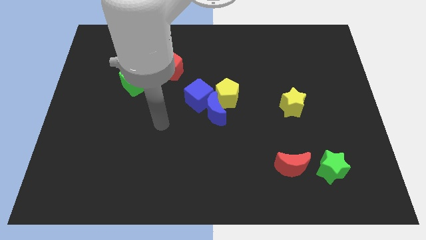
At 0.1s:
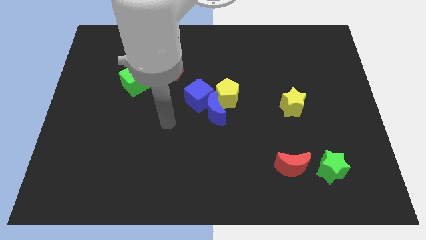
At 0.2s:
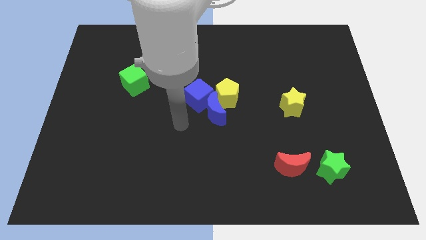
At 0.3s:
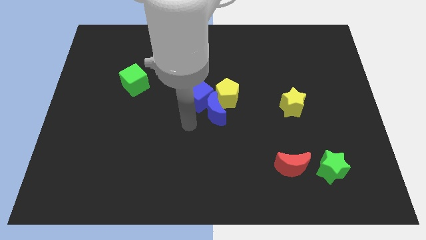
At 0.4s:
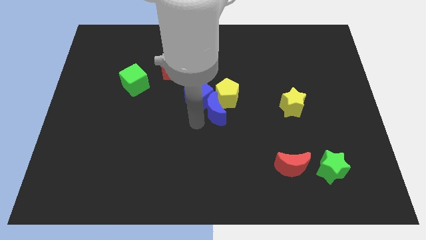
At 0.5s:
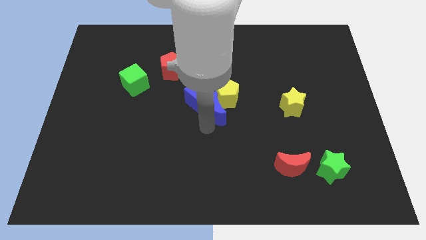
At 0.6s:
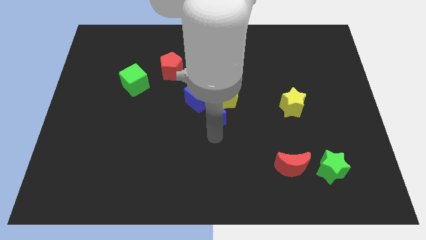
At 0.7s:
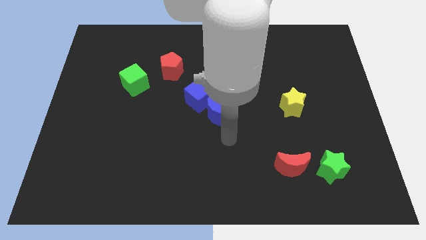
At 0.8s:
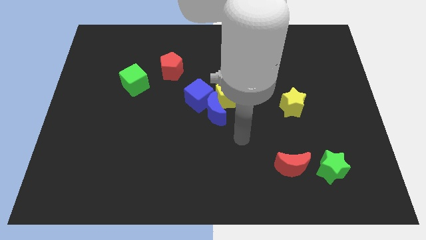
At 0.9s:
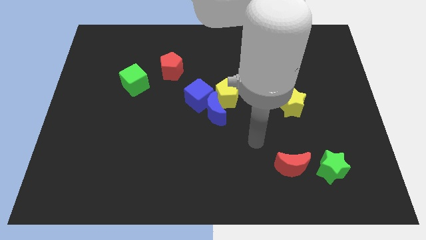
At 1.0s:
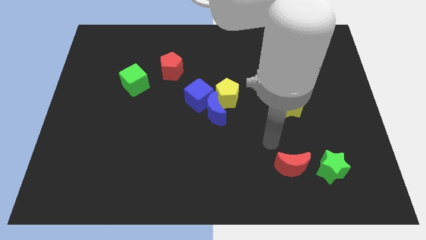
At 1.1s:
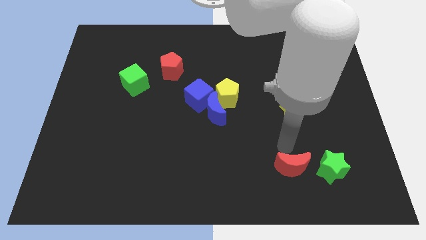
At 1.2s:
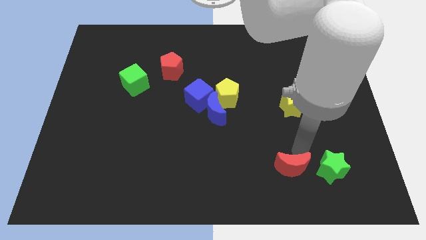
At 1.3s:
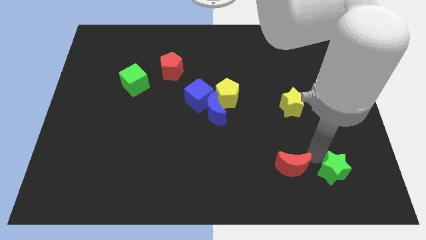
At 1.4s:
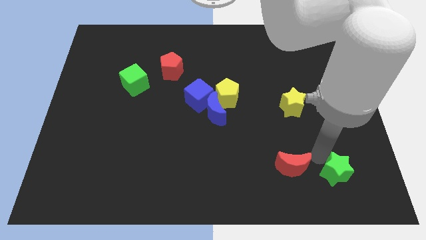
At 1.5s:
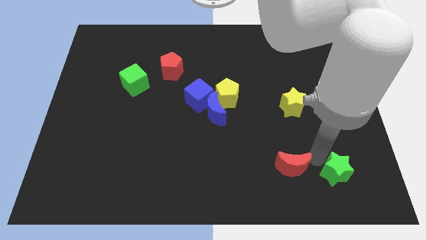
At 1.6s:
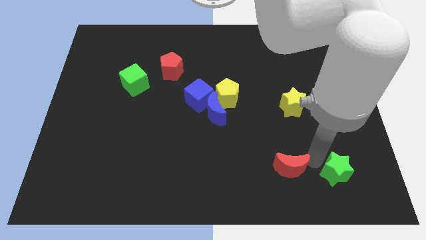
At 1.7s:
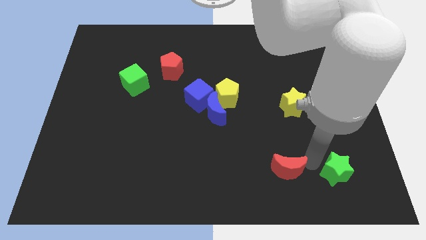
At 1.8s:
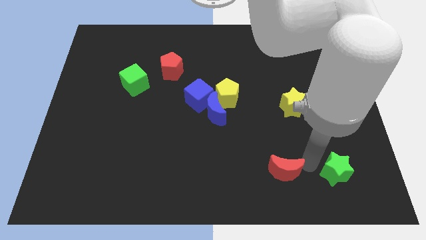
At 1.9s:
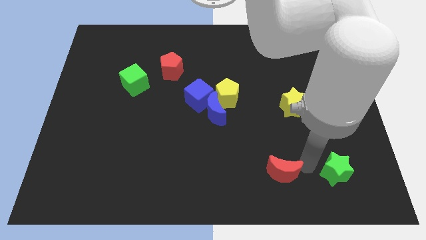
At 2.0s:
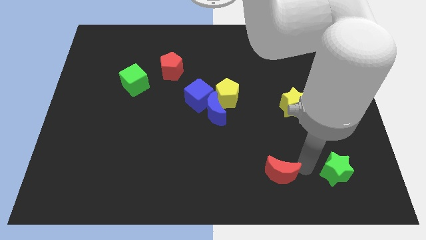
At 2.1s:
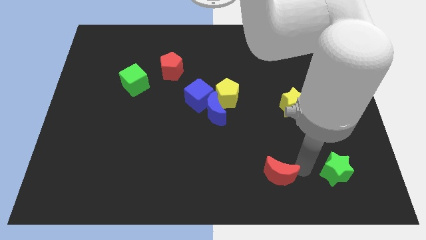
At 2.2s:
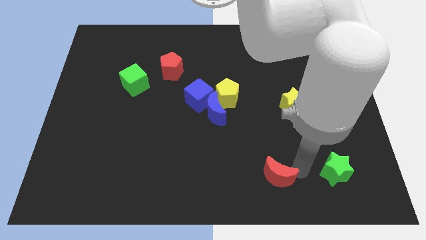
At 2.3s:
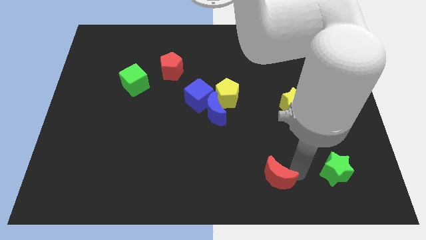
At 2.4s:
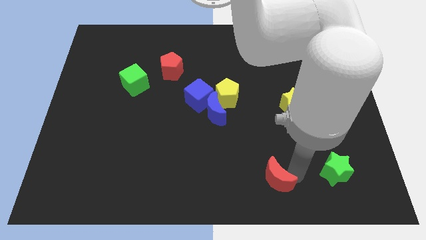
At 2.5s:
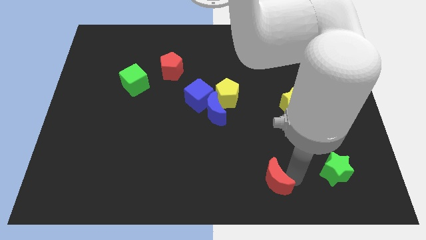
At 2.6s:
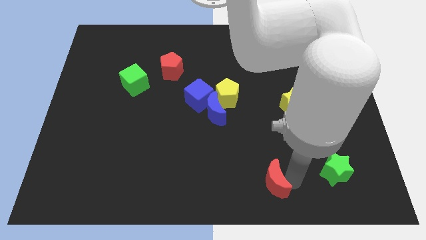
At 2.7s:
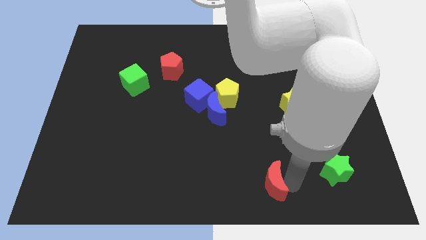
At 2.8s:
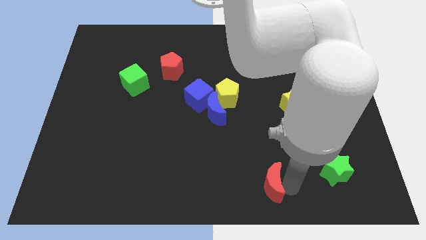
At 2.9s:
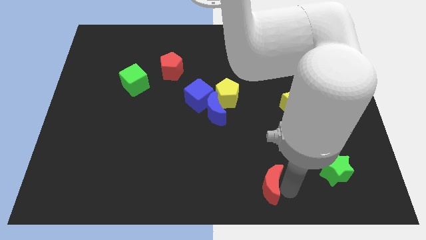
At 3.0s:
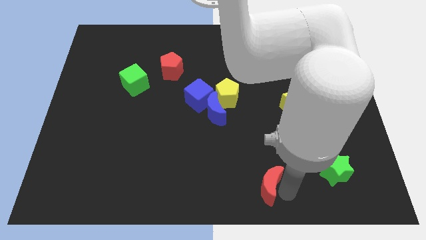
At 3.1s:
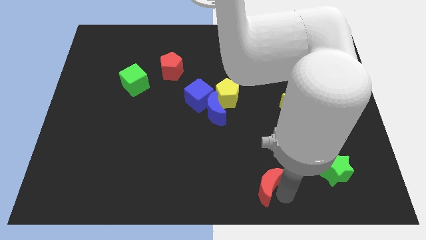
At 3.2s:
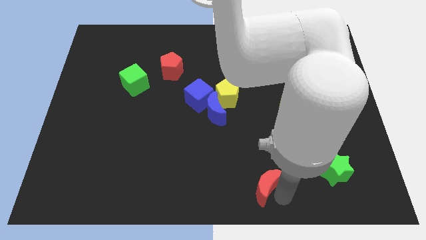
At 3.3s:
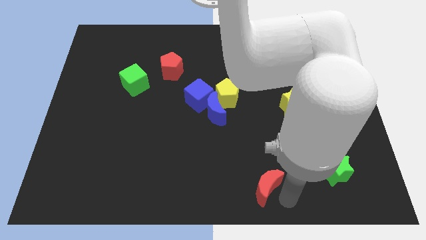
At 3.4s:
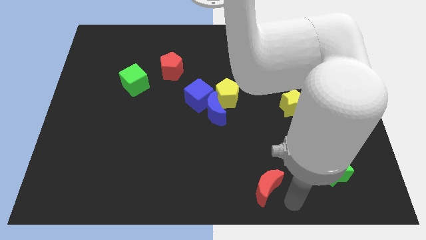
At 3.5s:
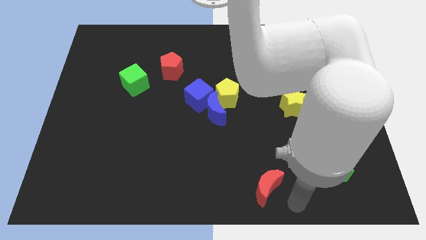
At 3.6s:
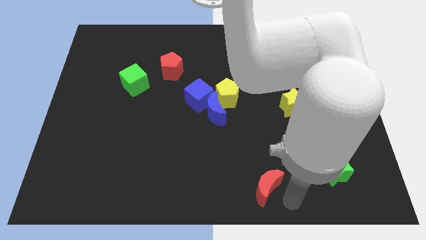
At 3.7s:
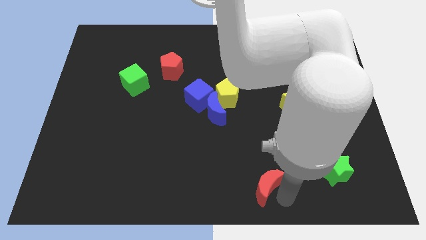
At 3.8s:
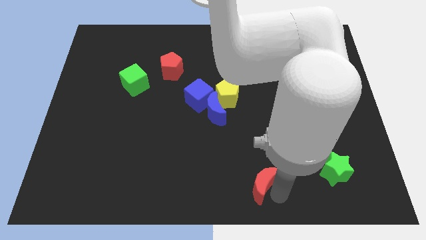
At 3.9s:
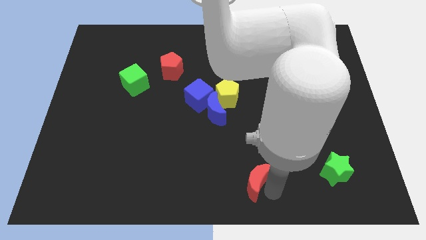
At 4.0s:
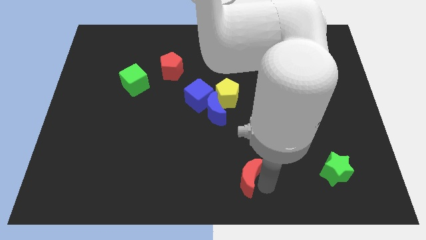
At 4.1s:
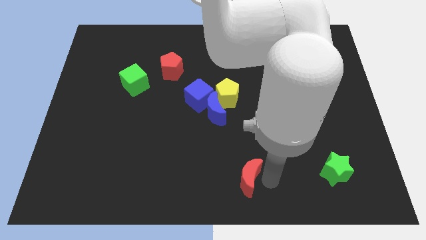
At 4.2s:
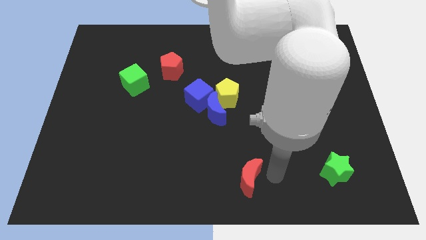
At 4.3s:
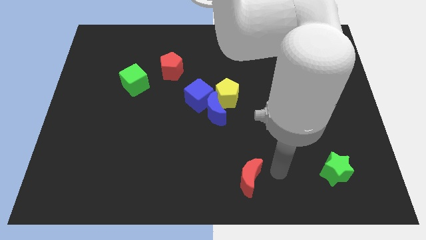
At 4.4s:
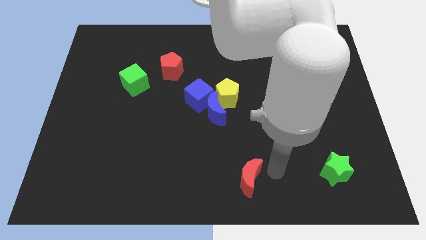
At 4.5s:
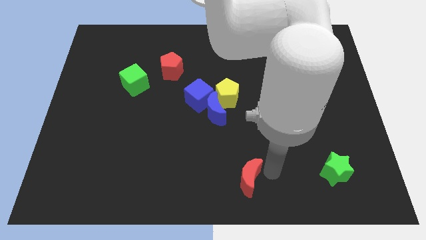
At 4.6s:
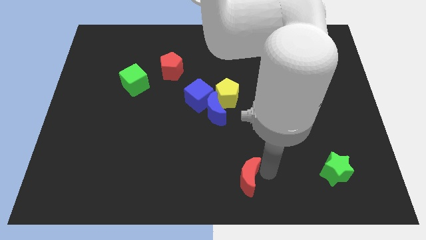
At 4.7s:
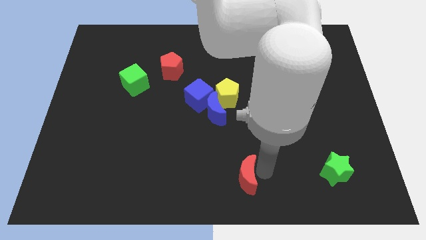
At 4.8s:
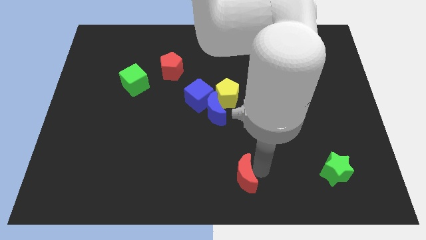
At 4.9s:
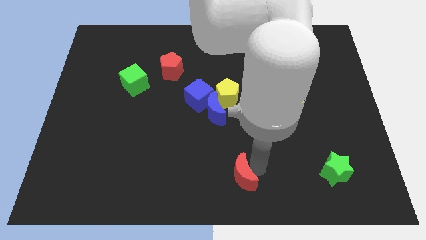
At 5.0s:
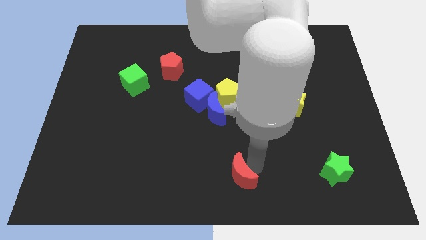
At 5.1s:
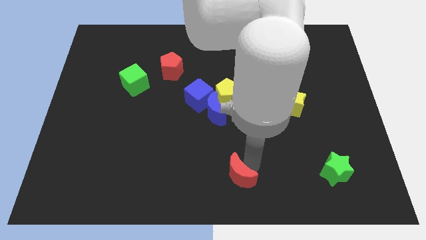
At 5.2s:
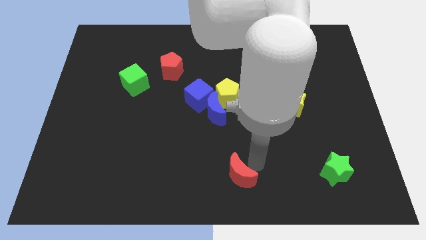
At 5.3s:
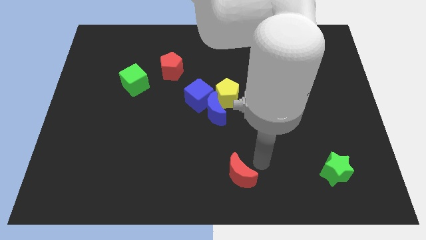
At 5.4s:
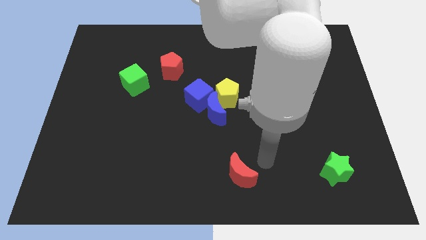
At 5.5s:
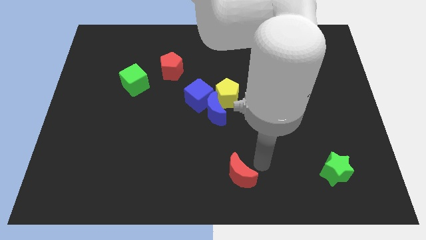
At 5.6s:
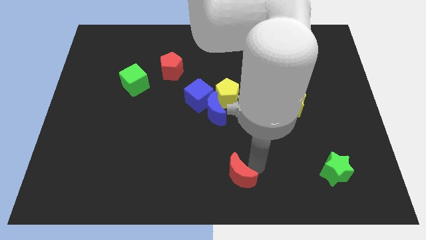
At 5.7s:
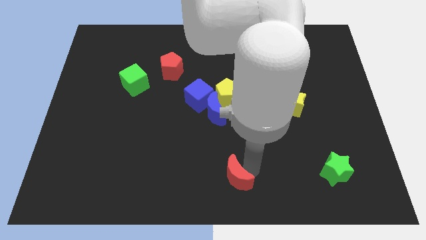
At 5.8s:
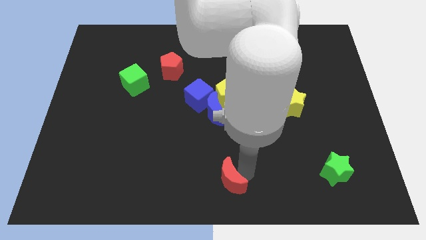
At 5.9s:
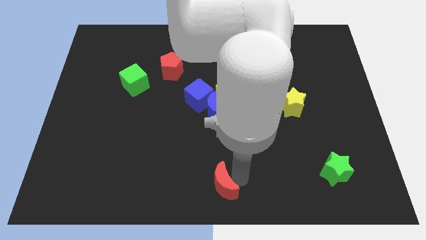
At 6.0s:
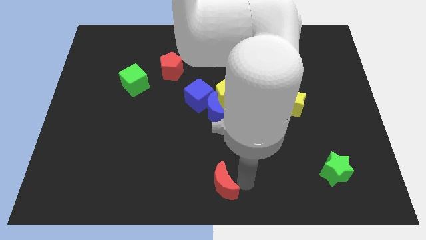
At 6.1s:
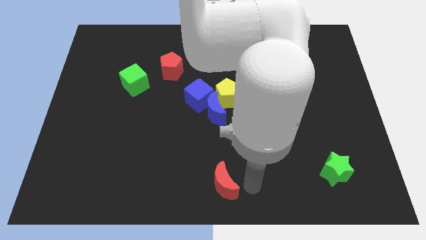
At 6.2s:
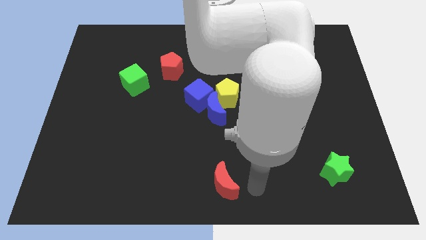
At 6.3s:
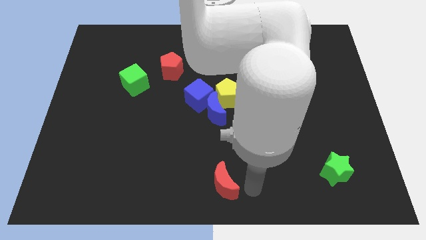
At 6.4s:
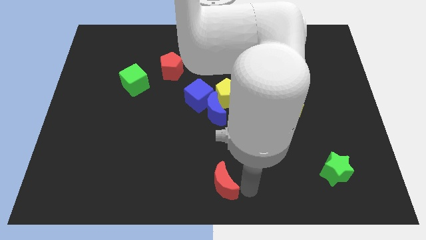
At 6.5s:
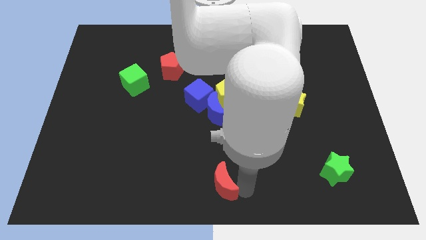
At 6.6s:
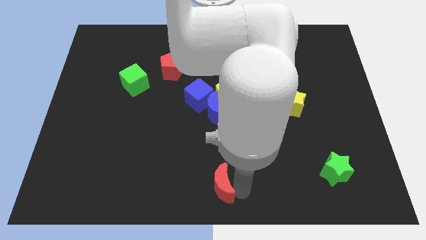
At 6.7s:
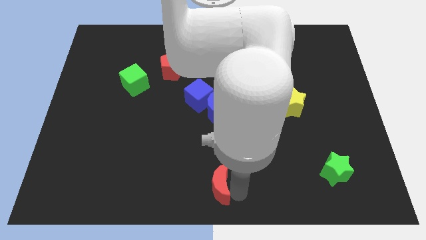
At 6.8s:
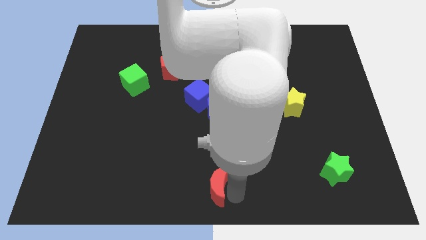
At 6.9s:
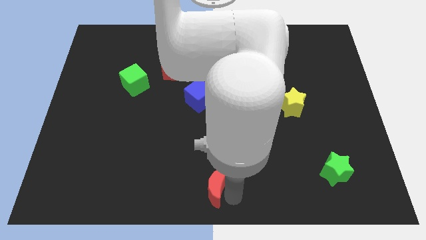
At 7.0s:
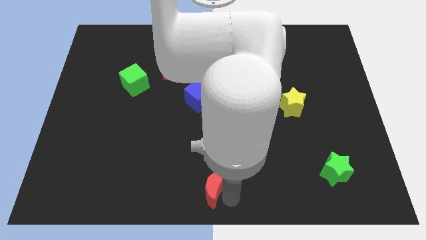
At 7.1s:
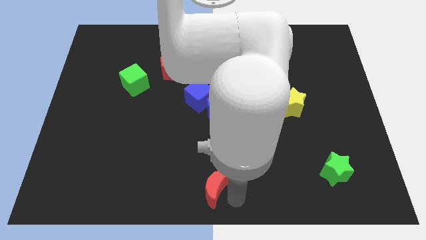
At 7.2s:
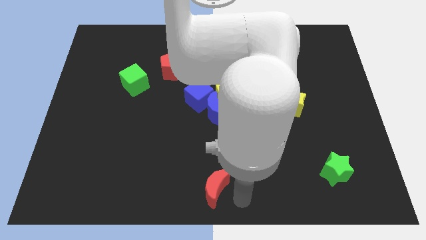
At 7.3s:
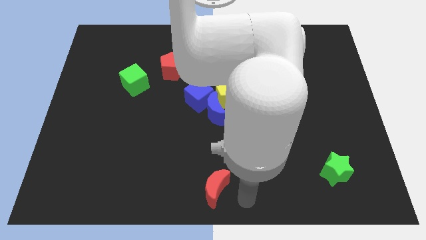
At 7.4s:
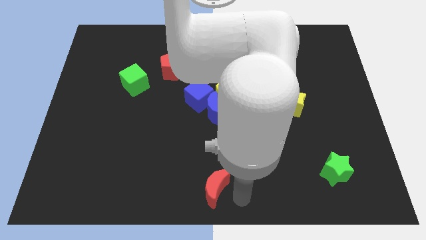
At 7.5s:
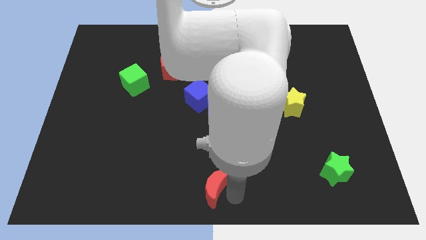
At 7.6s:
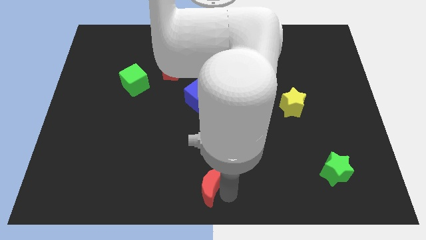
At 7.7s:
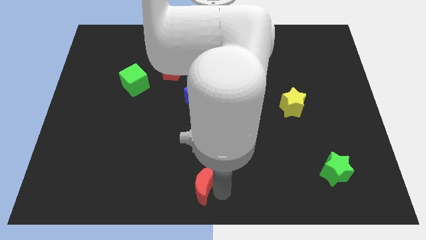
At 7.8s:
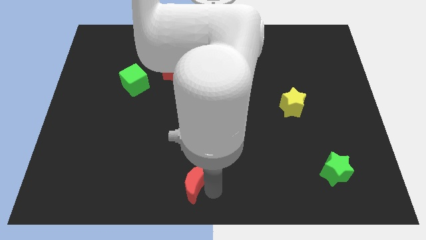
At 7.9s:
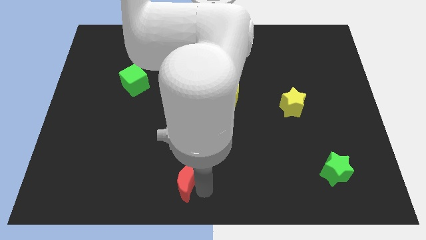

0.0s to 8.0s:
move the red moon to the left

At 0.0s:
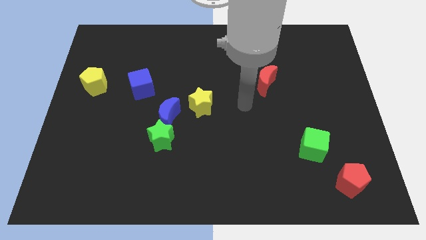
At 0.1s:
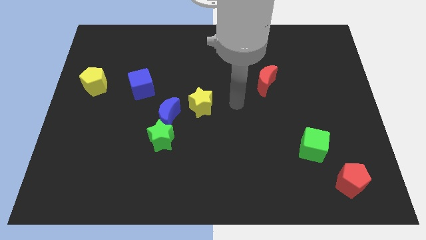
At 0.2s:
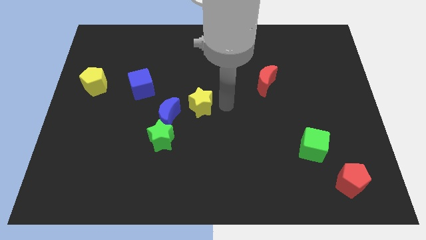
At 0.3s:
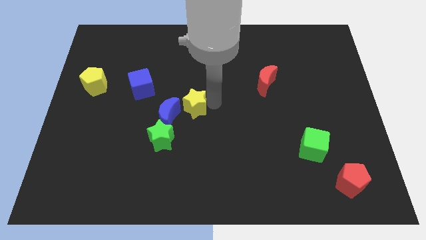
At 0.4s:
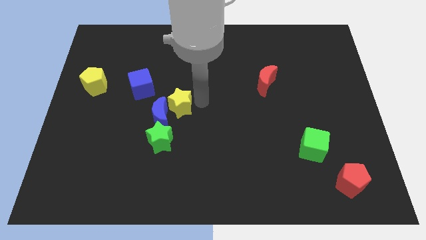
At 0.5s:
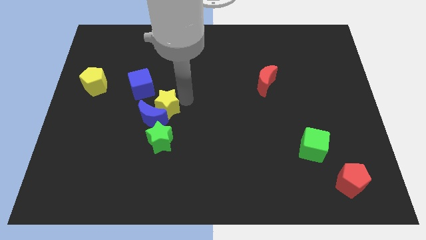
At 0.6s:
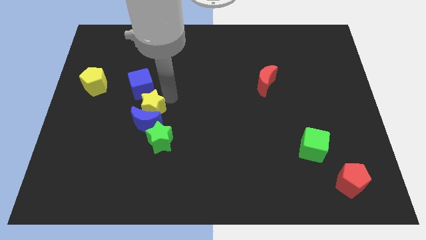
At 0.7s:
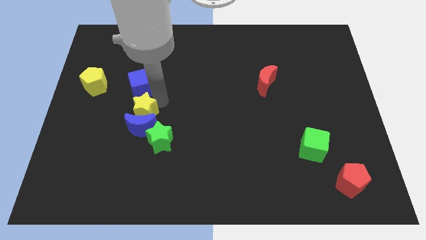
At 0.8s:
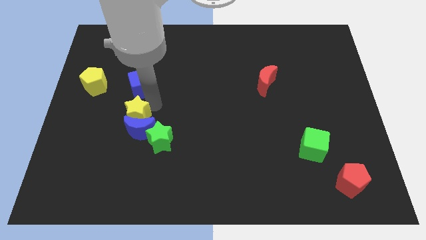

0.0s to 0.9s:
slightly slide the blue moon down and then left
